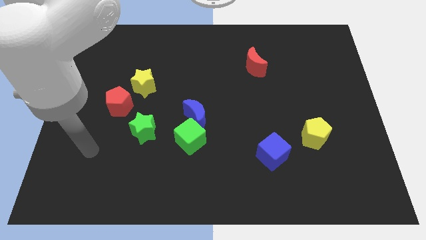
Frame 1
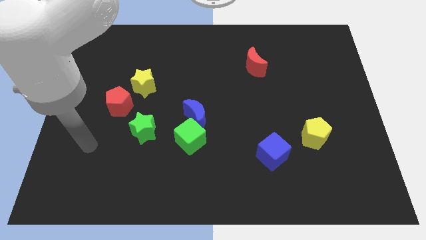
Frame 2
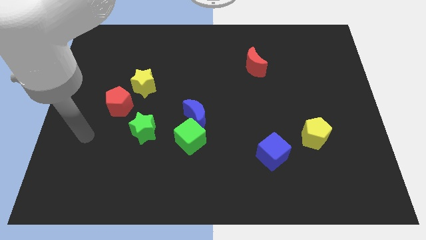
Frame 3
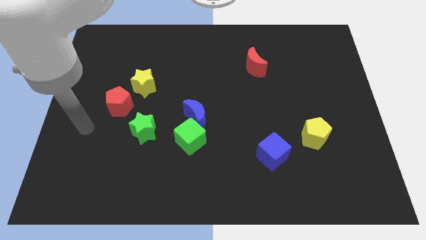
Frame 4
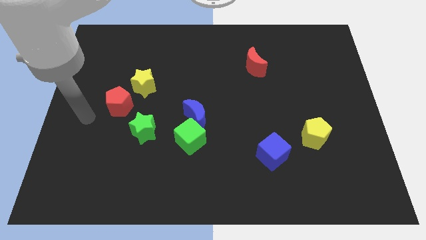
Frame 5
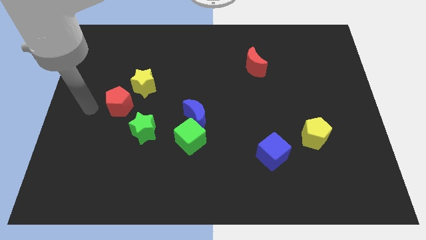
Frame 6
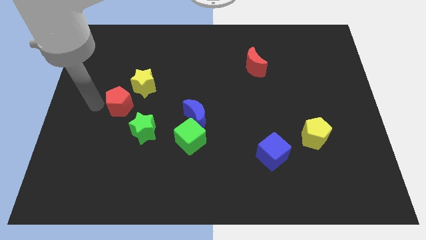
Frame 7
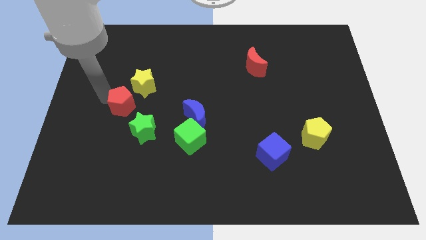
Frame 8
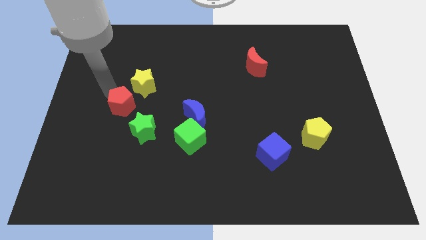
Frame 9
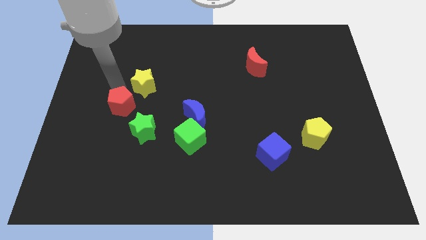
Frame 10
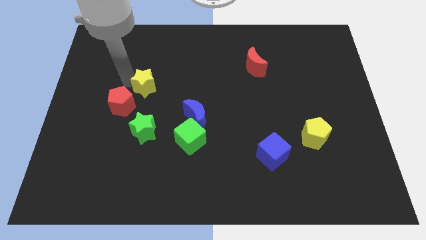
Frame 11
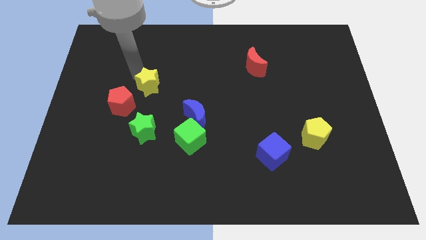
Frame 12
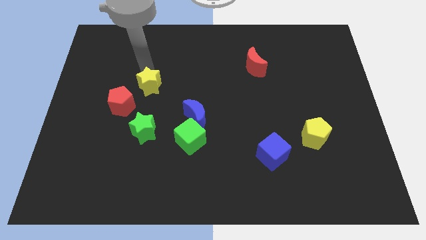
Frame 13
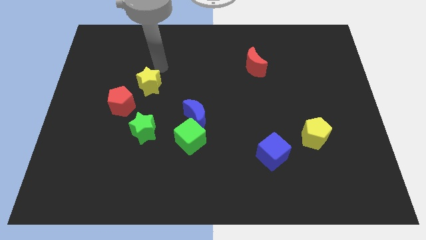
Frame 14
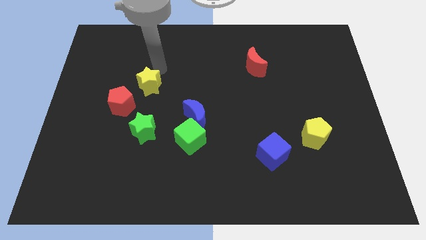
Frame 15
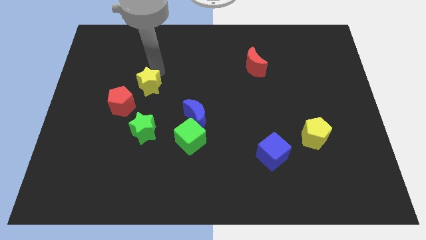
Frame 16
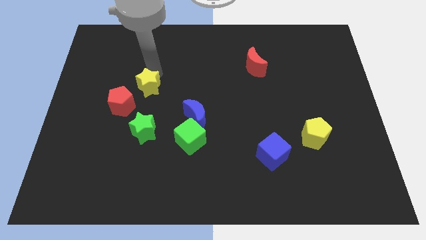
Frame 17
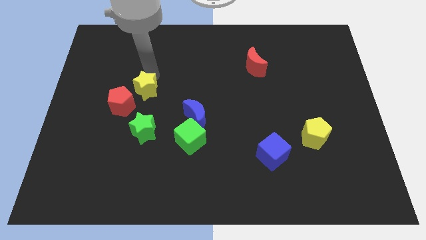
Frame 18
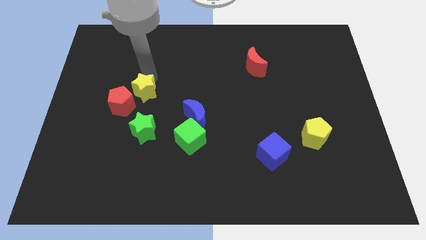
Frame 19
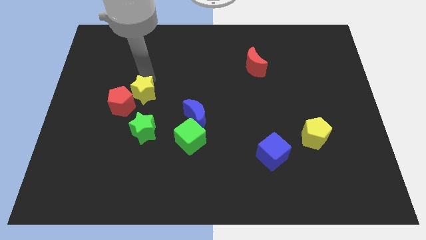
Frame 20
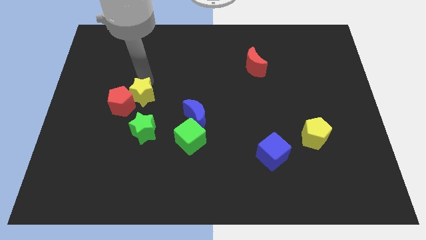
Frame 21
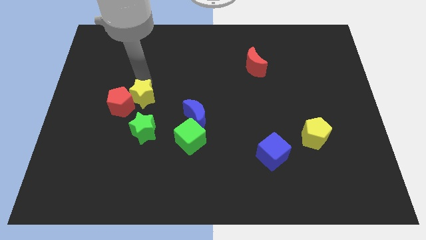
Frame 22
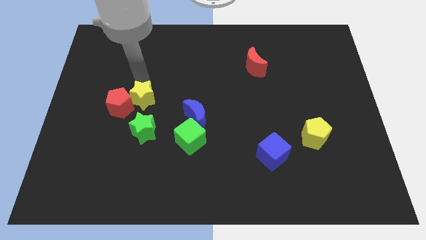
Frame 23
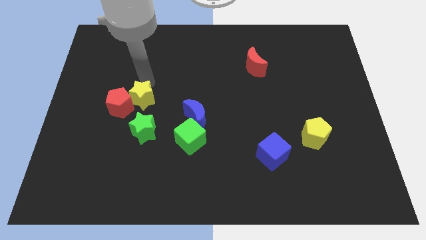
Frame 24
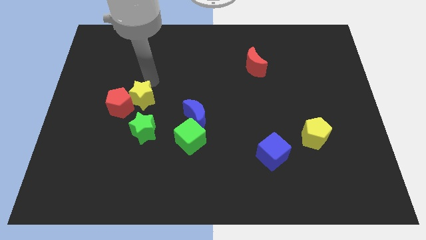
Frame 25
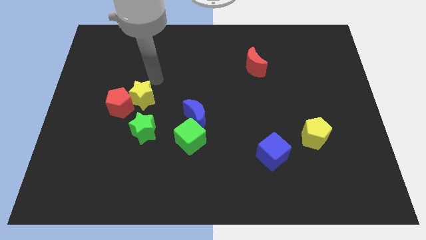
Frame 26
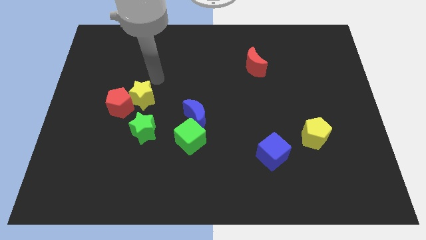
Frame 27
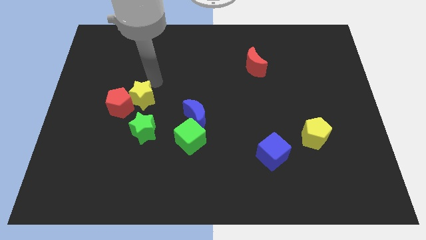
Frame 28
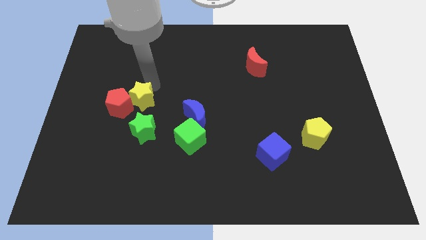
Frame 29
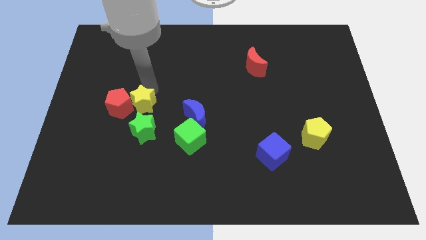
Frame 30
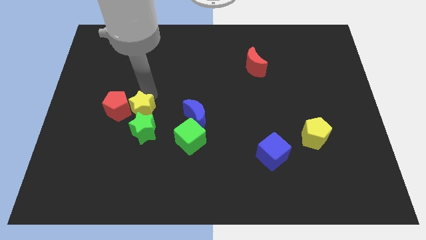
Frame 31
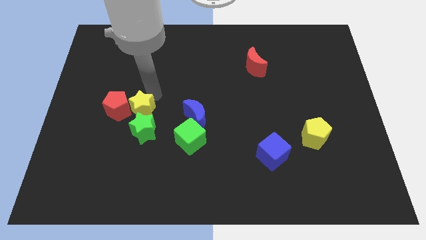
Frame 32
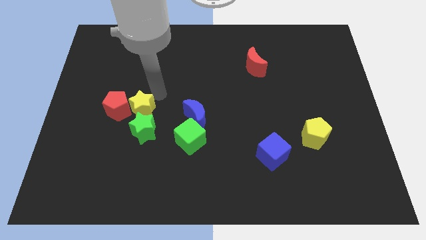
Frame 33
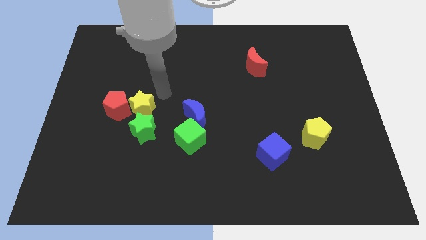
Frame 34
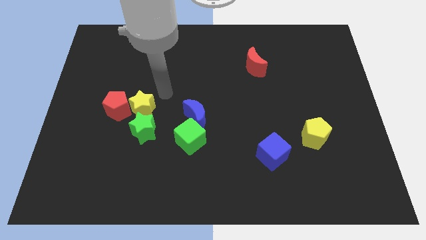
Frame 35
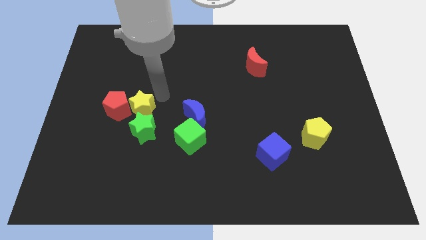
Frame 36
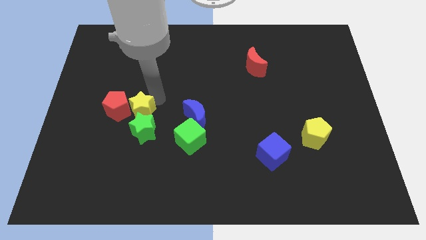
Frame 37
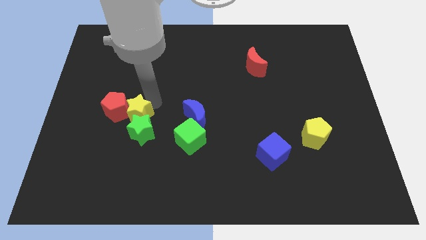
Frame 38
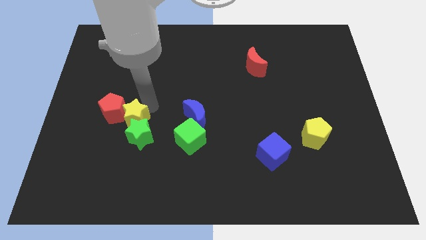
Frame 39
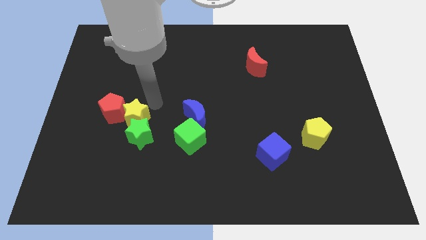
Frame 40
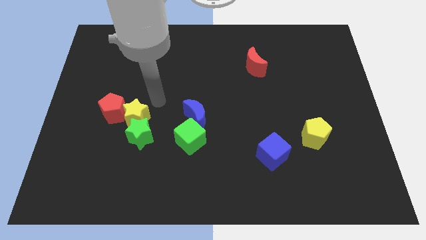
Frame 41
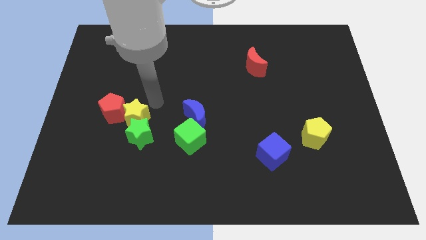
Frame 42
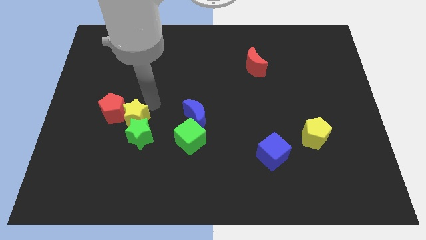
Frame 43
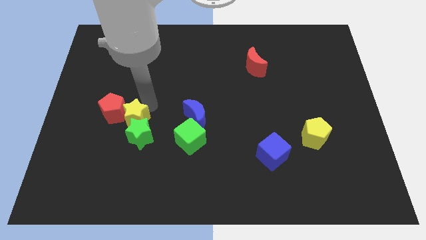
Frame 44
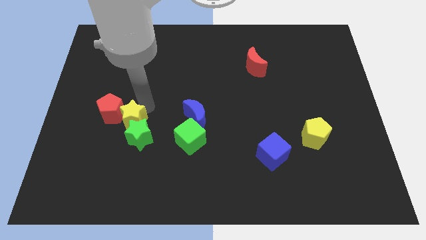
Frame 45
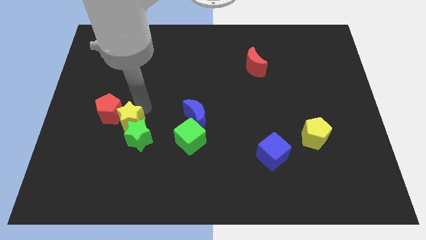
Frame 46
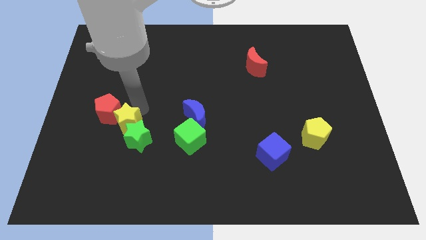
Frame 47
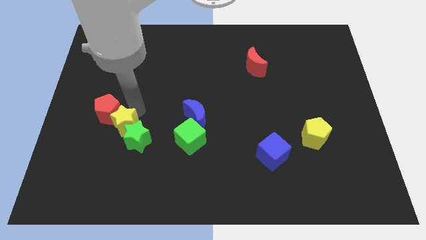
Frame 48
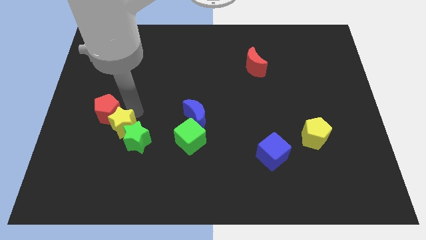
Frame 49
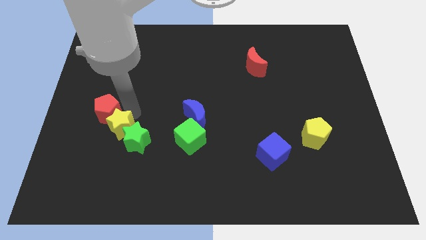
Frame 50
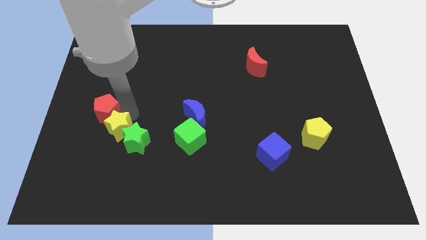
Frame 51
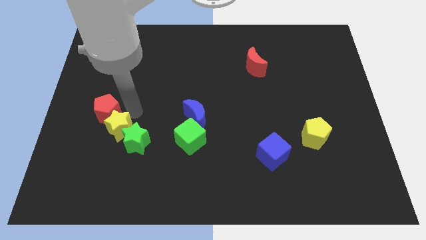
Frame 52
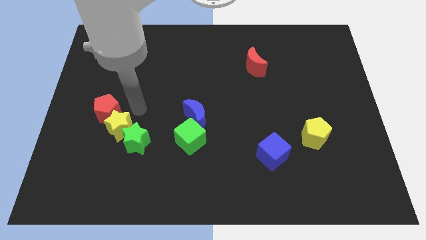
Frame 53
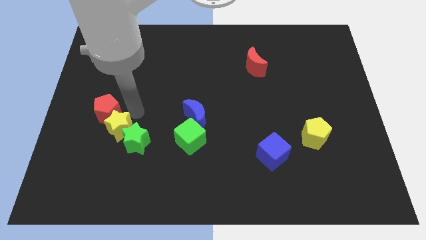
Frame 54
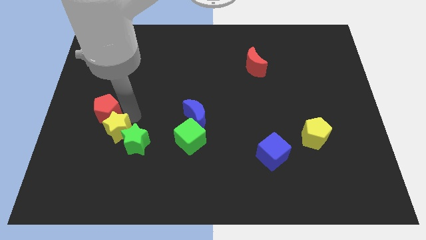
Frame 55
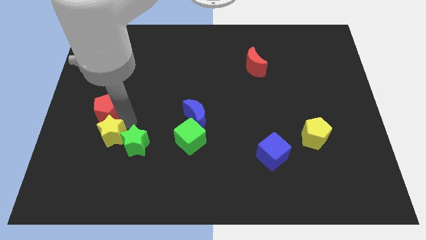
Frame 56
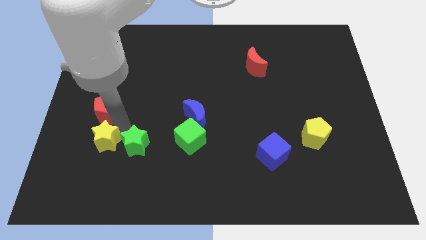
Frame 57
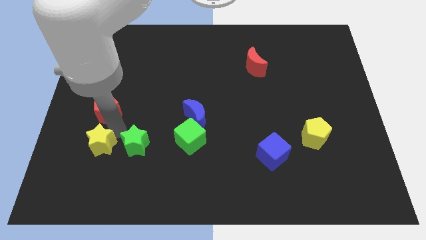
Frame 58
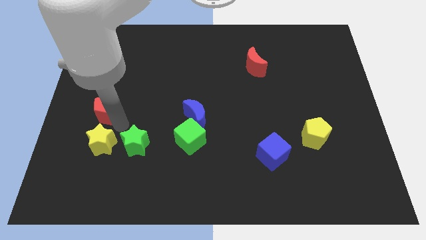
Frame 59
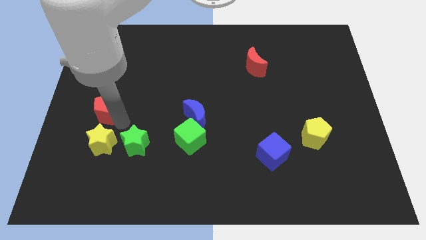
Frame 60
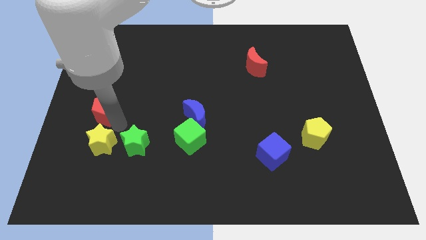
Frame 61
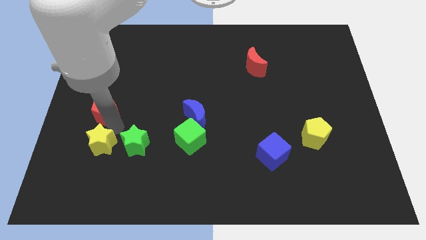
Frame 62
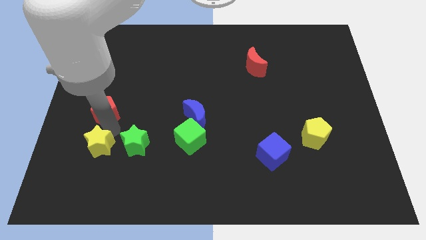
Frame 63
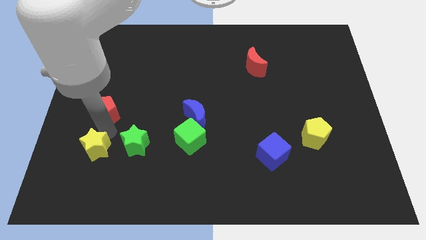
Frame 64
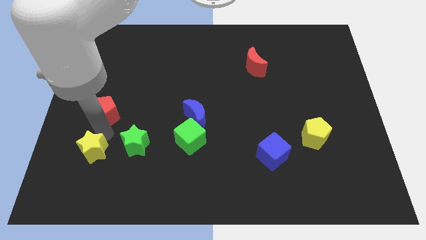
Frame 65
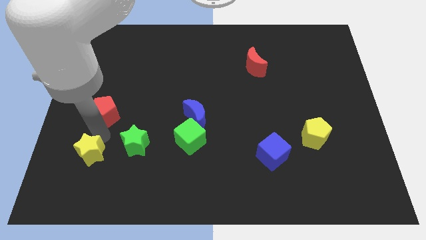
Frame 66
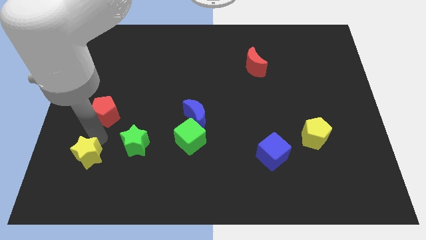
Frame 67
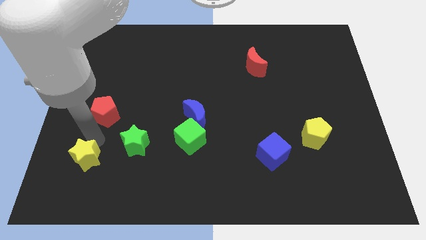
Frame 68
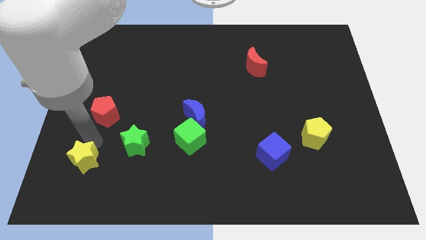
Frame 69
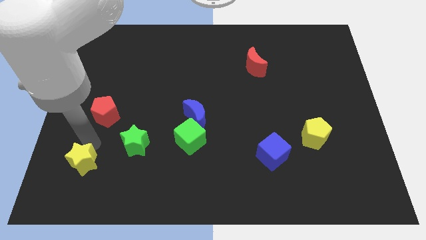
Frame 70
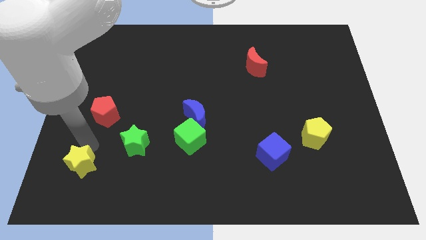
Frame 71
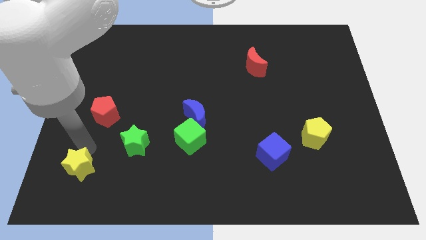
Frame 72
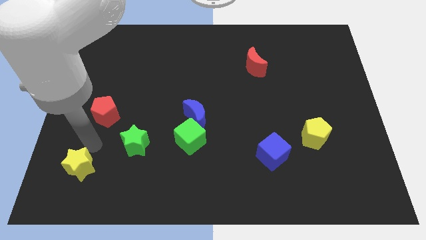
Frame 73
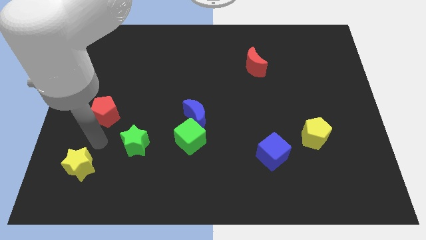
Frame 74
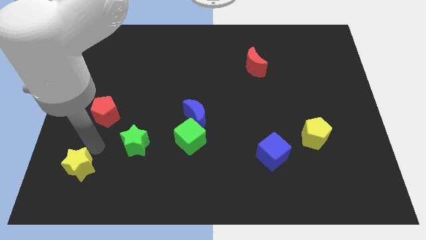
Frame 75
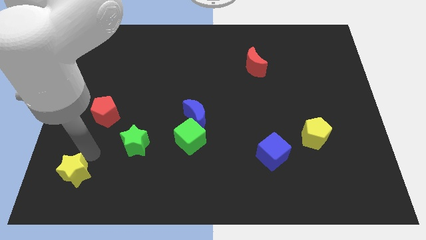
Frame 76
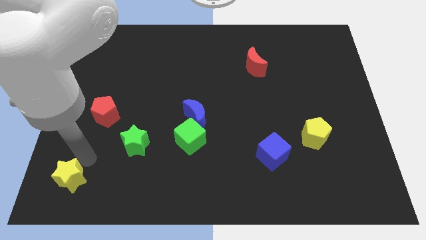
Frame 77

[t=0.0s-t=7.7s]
slide the yellow star to the bottom left of the board
